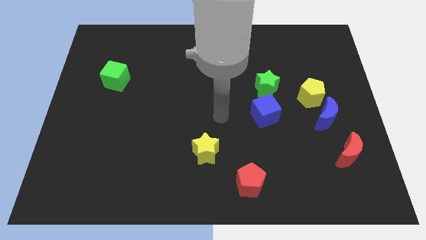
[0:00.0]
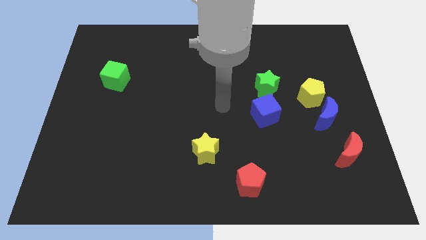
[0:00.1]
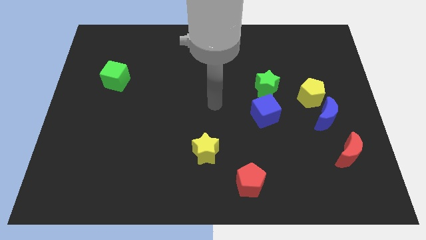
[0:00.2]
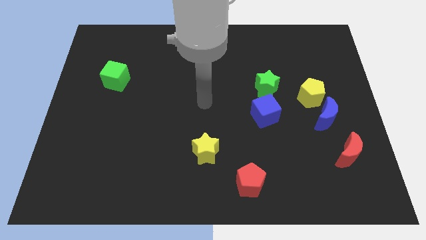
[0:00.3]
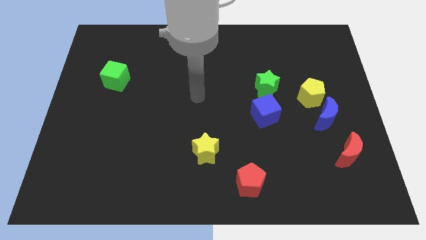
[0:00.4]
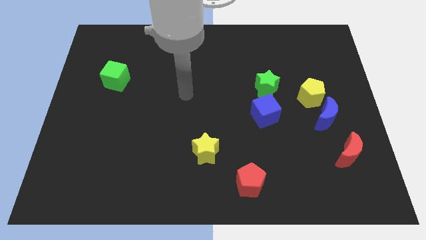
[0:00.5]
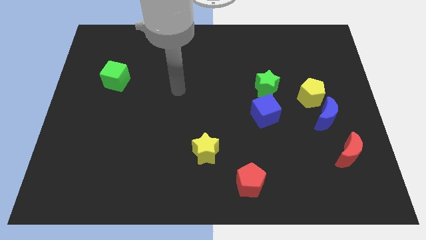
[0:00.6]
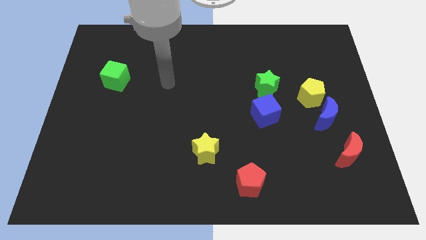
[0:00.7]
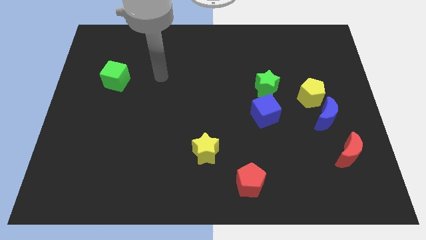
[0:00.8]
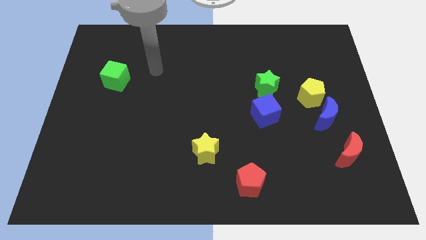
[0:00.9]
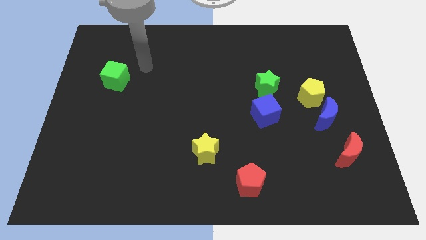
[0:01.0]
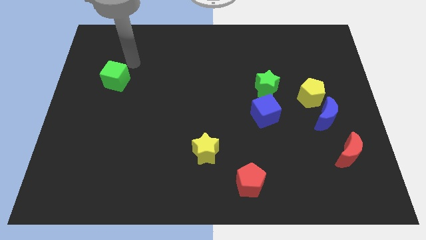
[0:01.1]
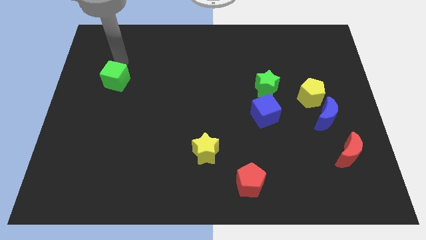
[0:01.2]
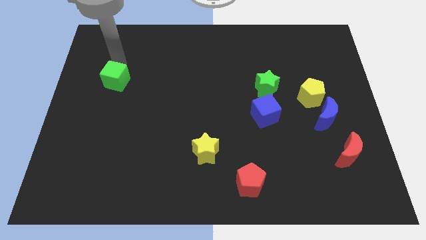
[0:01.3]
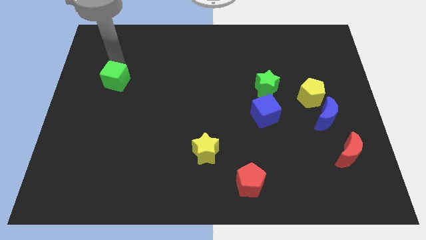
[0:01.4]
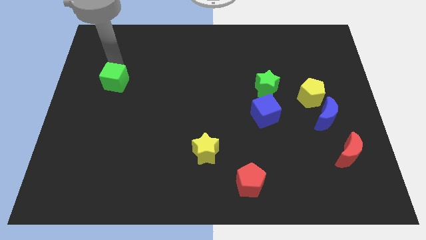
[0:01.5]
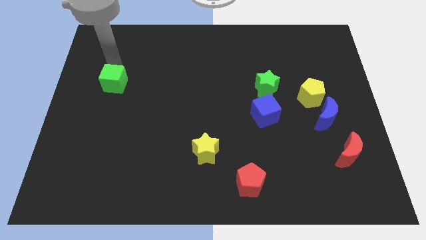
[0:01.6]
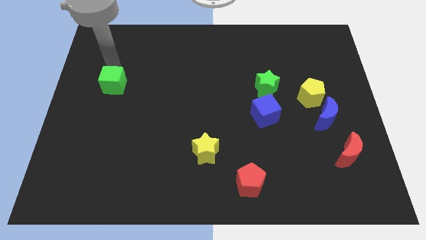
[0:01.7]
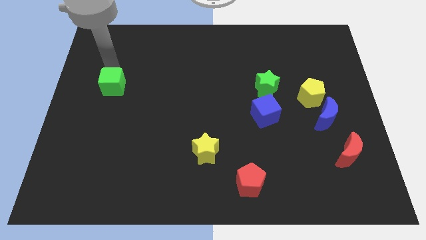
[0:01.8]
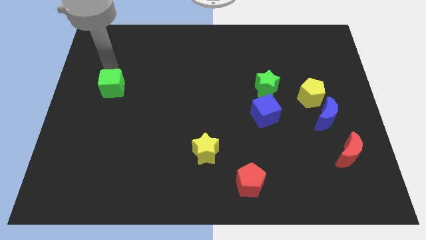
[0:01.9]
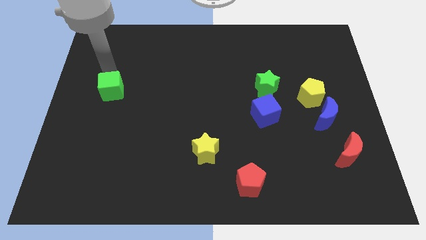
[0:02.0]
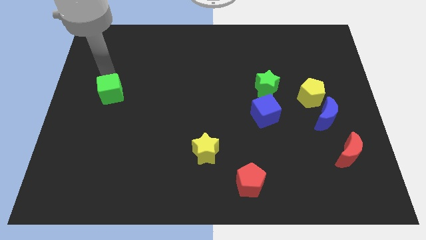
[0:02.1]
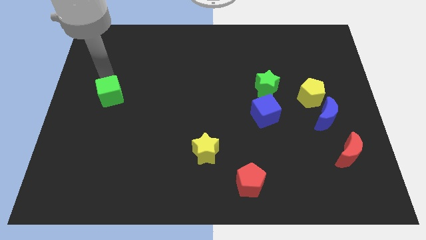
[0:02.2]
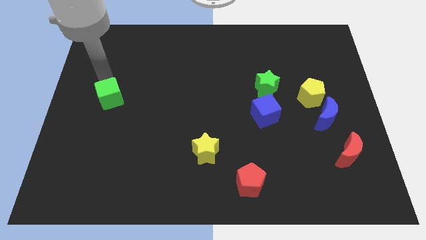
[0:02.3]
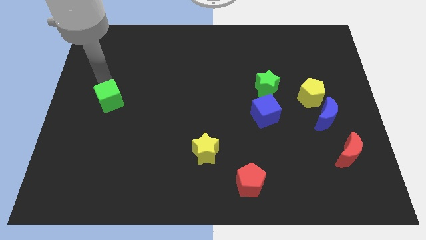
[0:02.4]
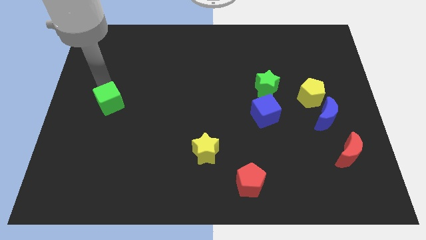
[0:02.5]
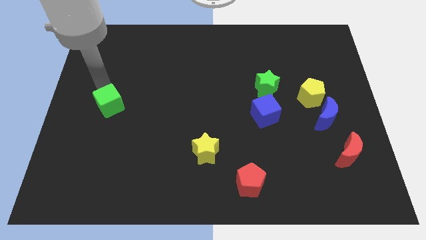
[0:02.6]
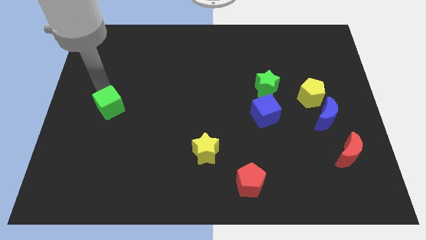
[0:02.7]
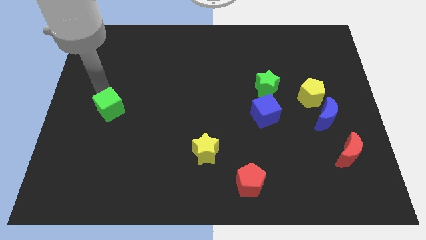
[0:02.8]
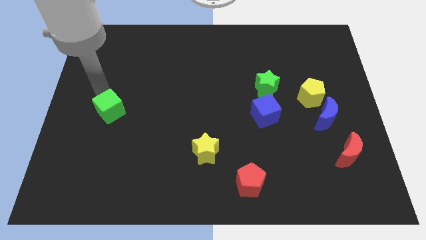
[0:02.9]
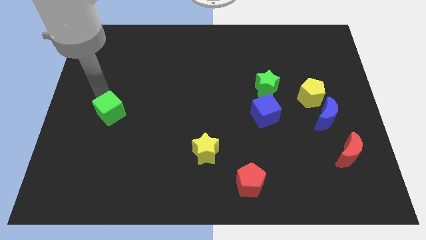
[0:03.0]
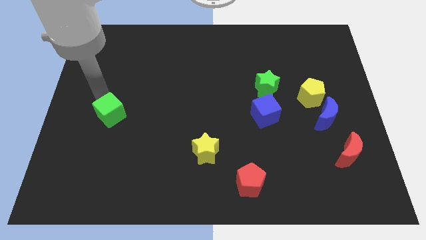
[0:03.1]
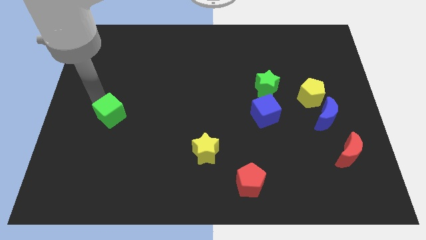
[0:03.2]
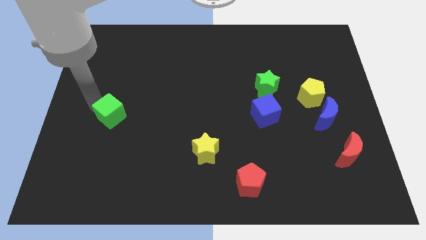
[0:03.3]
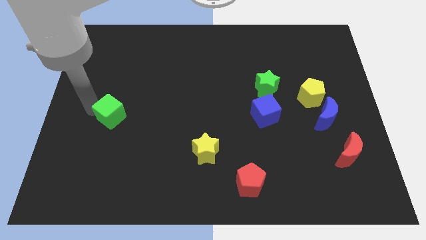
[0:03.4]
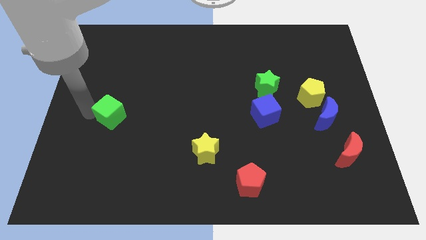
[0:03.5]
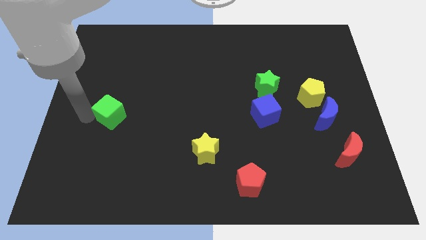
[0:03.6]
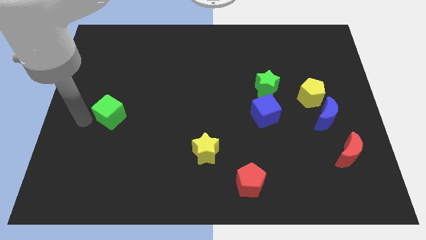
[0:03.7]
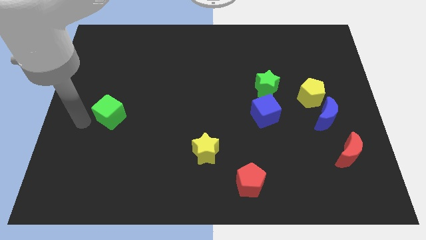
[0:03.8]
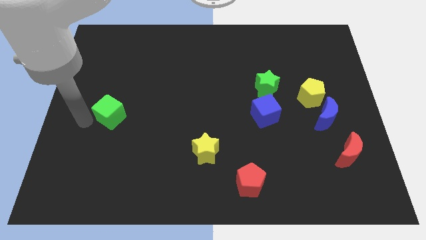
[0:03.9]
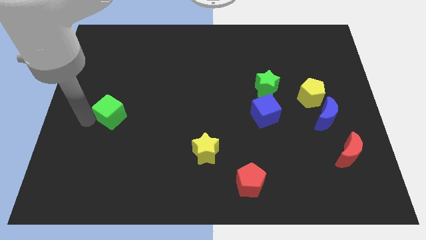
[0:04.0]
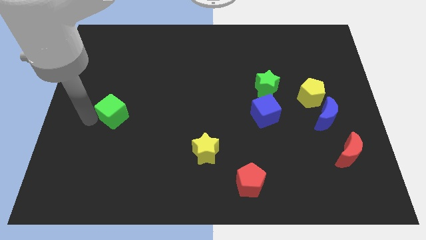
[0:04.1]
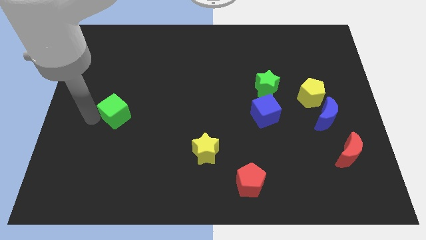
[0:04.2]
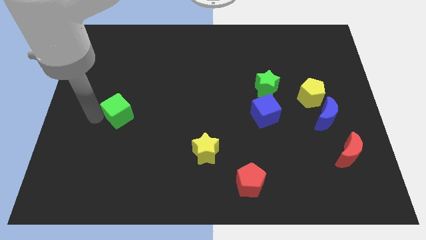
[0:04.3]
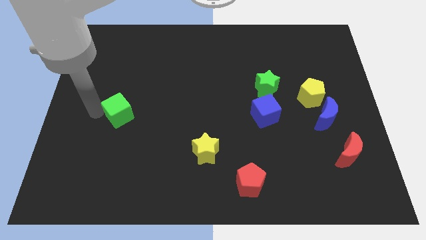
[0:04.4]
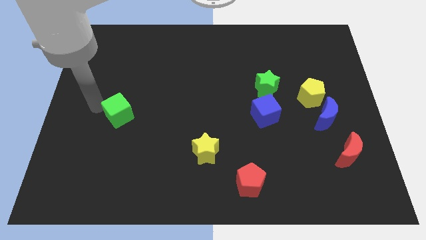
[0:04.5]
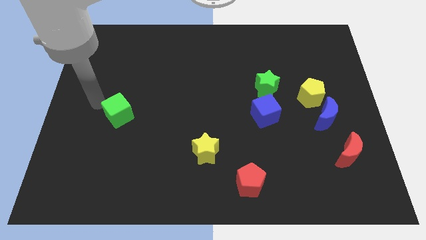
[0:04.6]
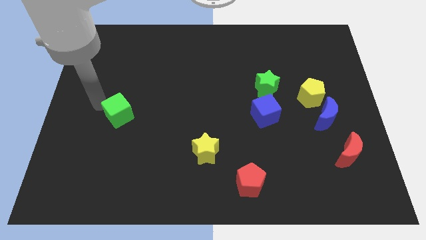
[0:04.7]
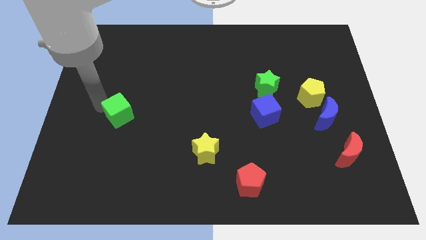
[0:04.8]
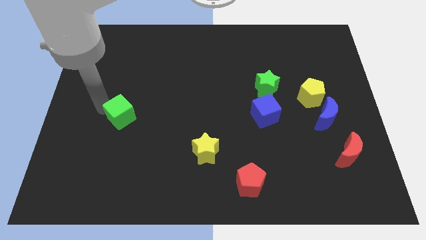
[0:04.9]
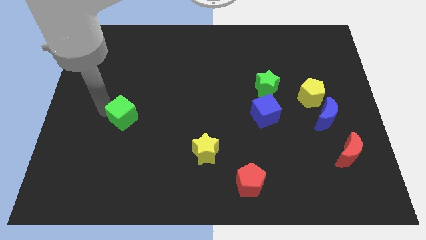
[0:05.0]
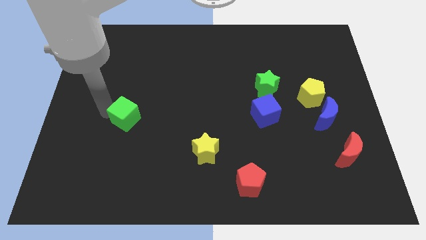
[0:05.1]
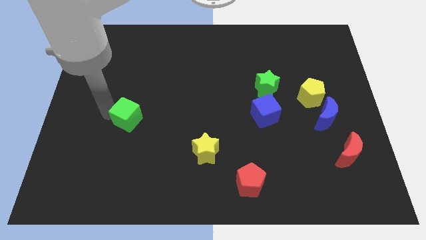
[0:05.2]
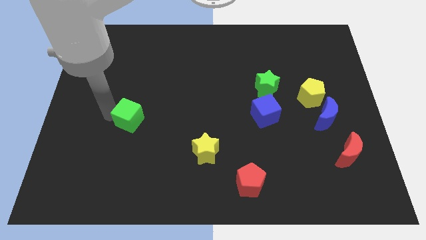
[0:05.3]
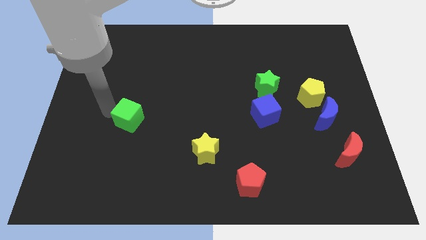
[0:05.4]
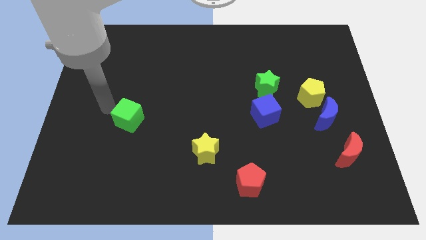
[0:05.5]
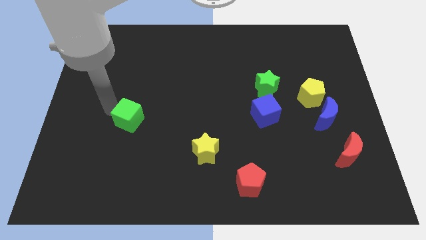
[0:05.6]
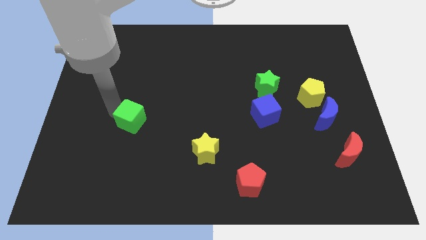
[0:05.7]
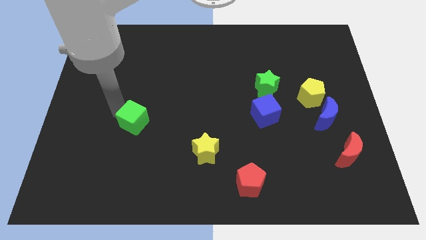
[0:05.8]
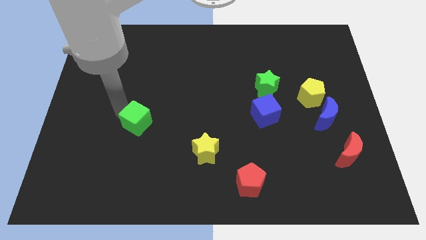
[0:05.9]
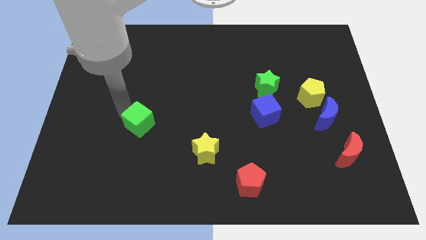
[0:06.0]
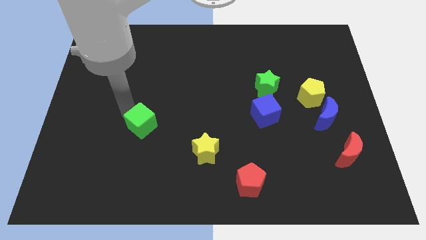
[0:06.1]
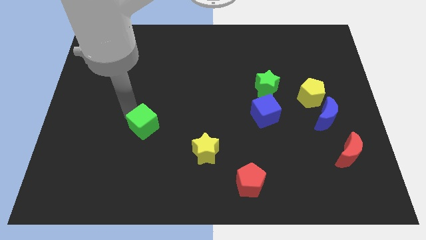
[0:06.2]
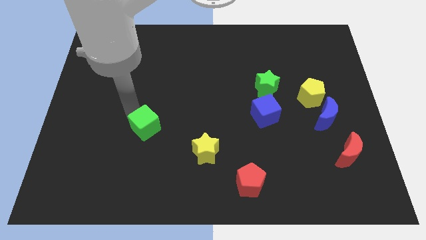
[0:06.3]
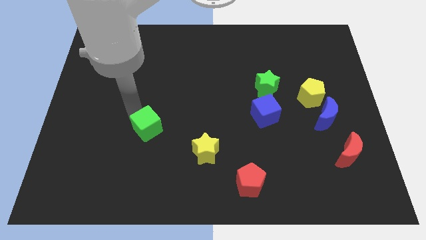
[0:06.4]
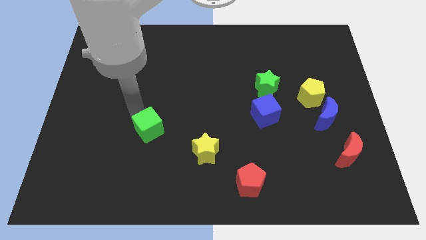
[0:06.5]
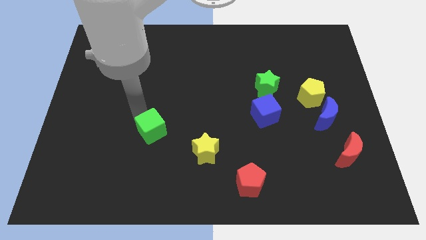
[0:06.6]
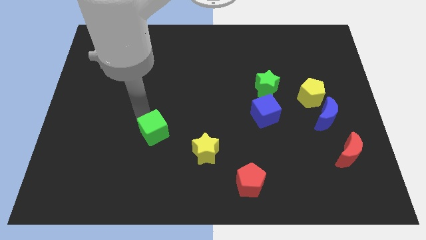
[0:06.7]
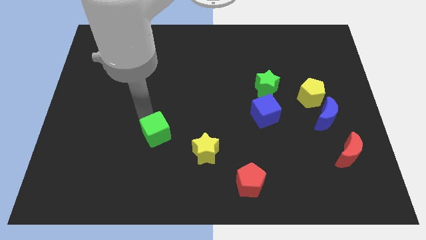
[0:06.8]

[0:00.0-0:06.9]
move the green cube left of the yellow star
